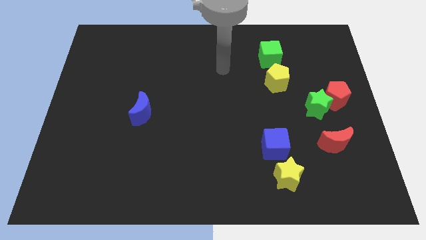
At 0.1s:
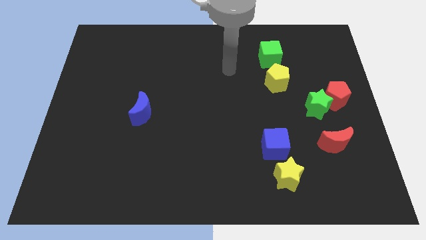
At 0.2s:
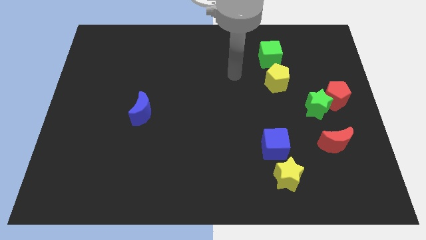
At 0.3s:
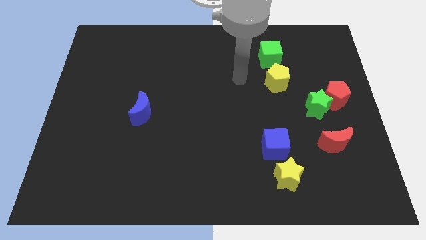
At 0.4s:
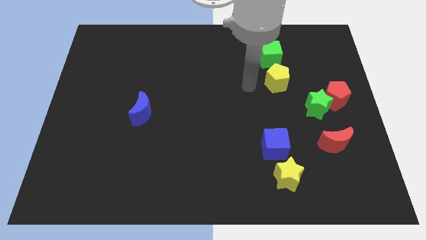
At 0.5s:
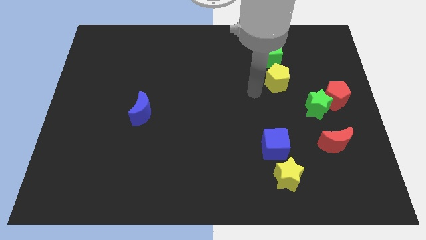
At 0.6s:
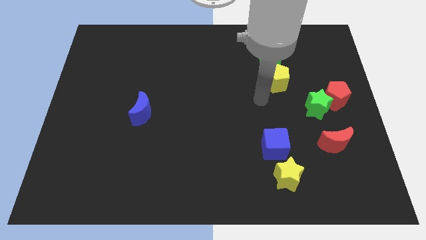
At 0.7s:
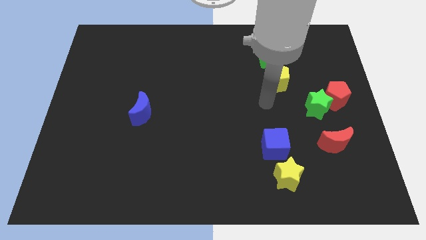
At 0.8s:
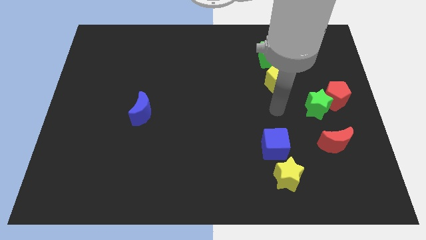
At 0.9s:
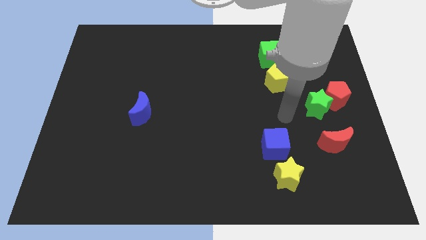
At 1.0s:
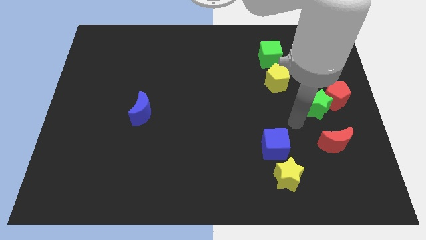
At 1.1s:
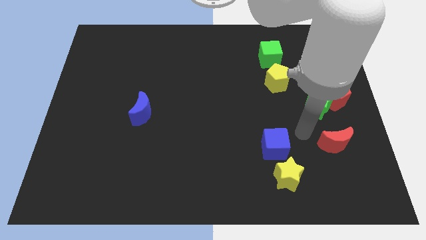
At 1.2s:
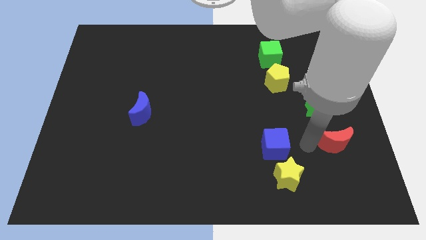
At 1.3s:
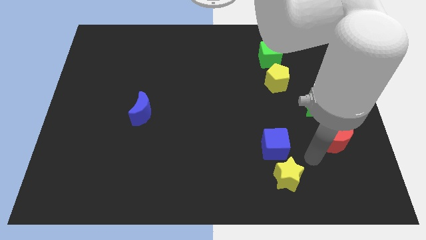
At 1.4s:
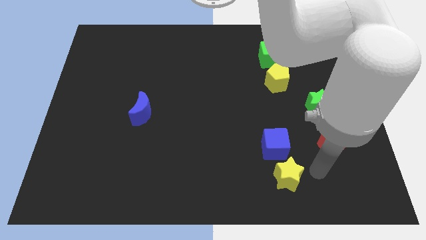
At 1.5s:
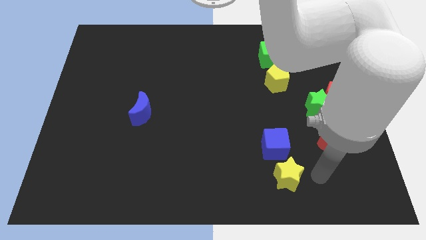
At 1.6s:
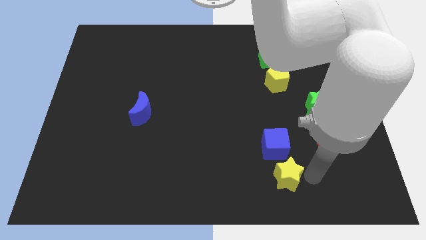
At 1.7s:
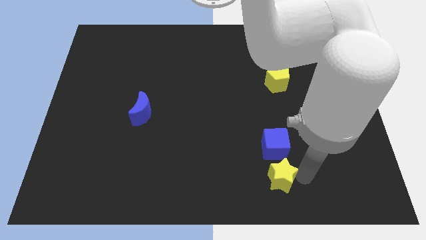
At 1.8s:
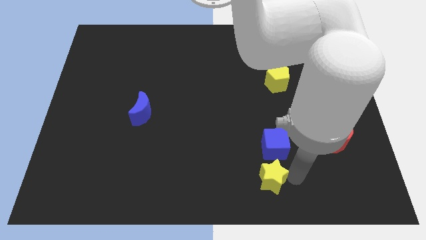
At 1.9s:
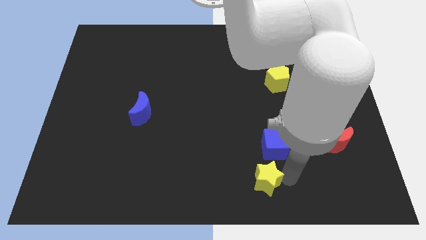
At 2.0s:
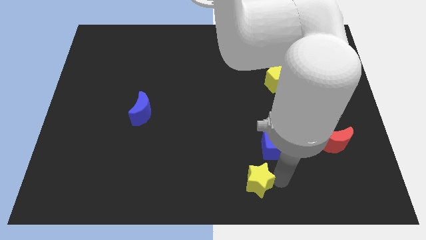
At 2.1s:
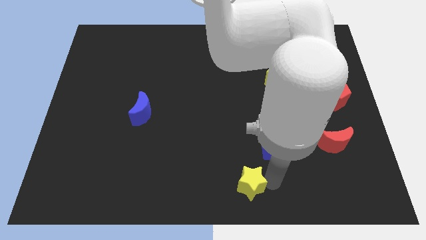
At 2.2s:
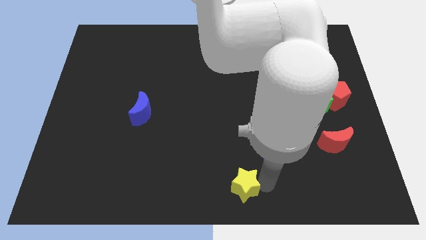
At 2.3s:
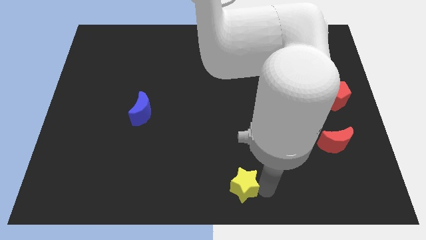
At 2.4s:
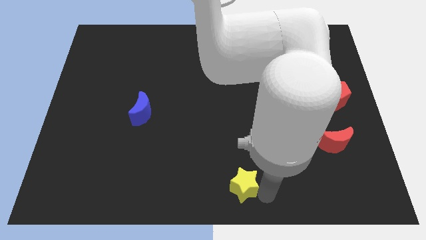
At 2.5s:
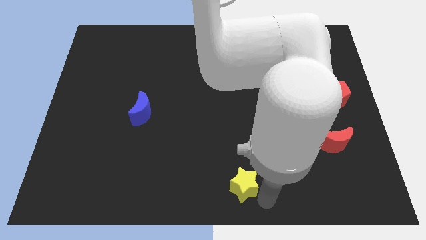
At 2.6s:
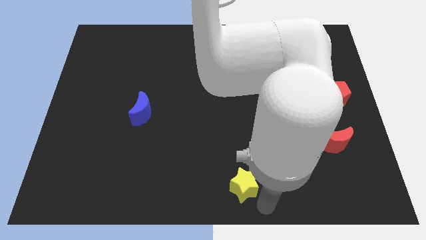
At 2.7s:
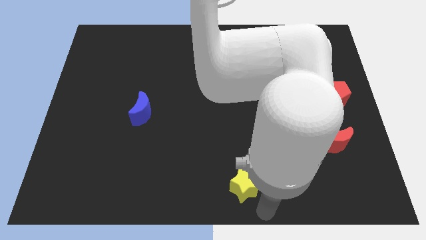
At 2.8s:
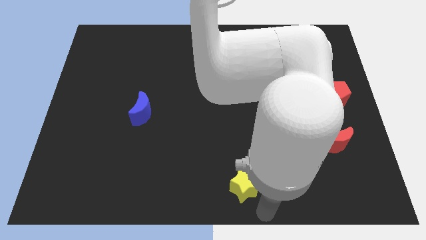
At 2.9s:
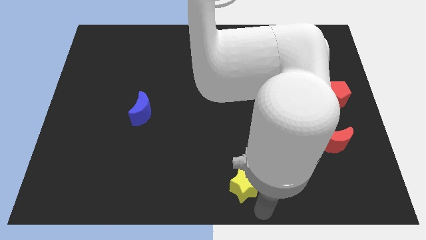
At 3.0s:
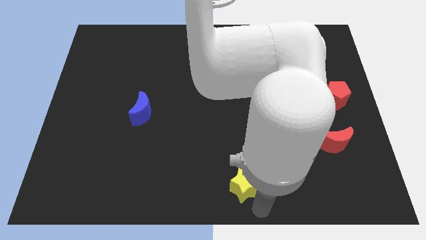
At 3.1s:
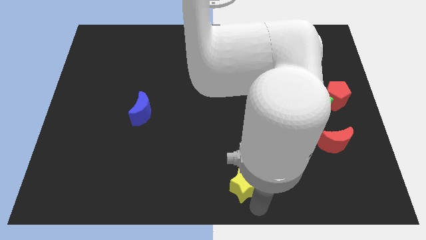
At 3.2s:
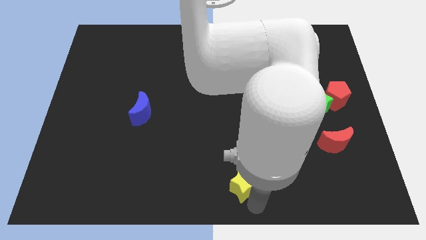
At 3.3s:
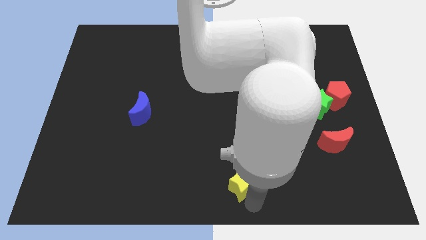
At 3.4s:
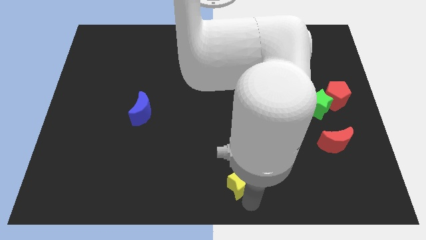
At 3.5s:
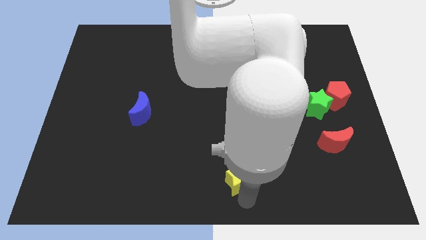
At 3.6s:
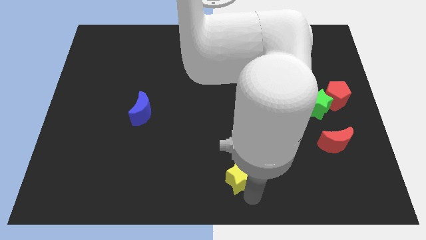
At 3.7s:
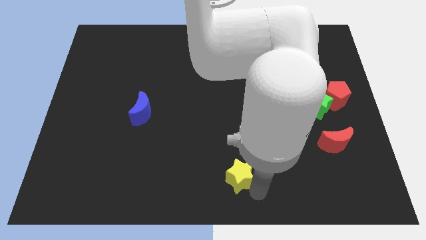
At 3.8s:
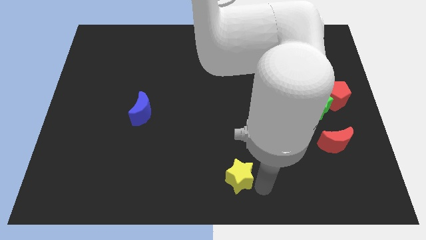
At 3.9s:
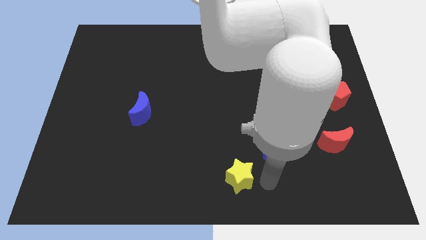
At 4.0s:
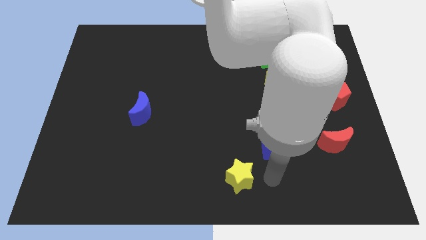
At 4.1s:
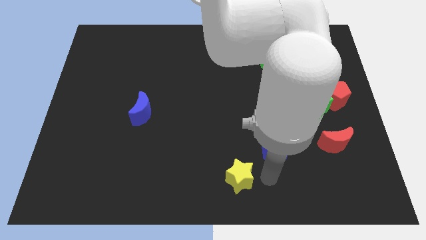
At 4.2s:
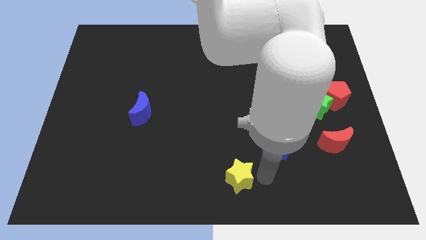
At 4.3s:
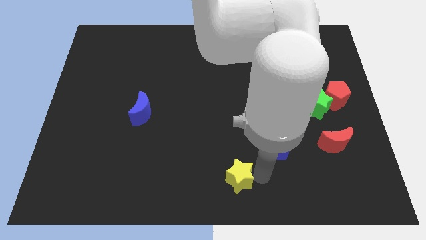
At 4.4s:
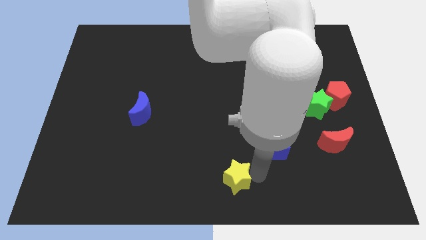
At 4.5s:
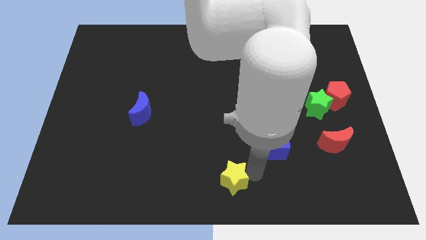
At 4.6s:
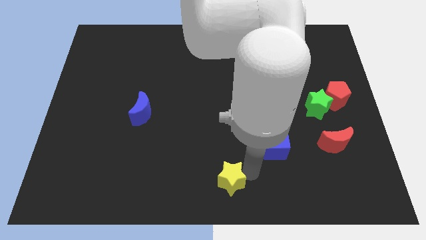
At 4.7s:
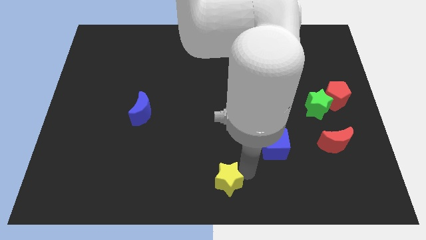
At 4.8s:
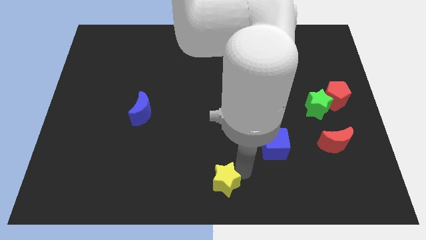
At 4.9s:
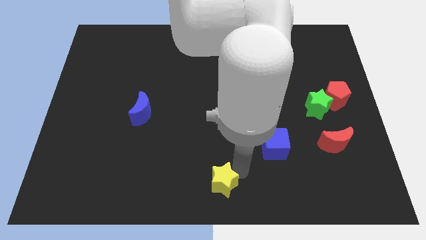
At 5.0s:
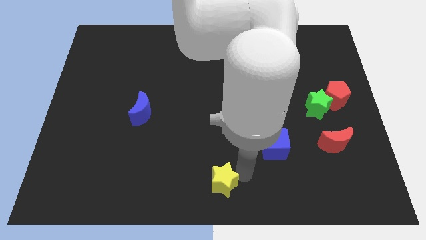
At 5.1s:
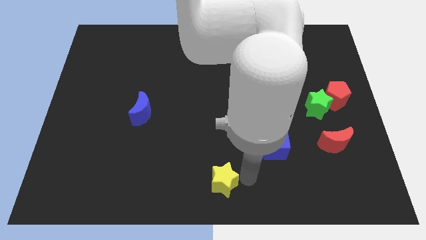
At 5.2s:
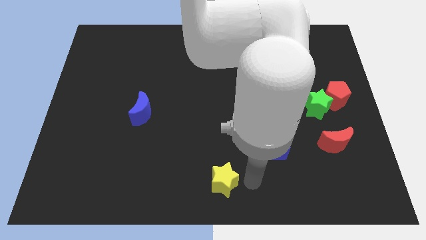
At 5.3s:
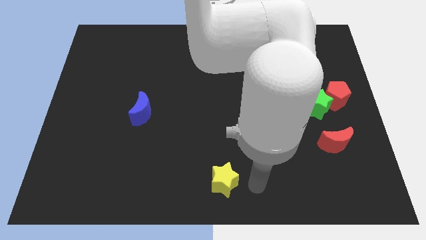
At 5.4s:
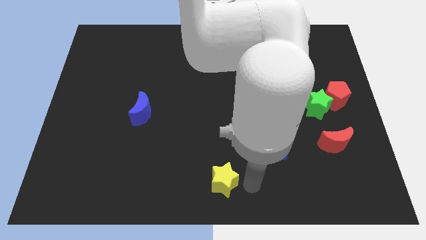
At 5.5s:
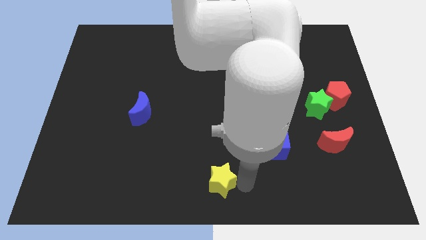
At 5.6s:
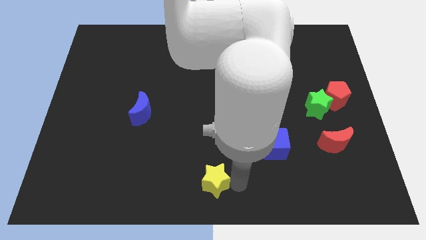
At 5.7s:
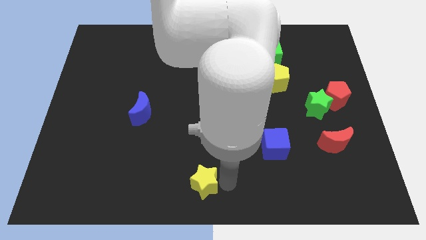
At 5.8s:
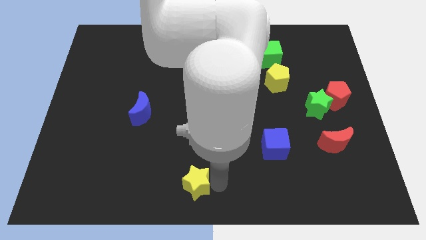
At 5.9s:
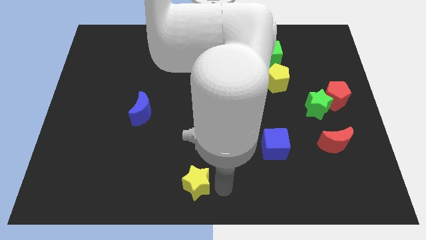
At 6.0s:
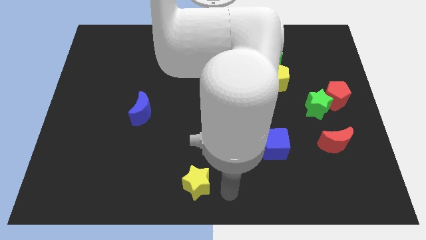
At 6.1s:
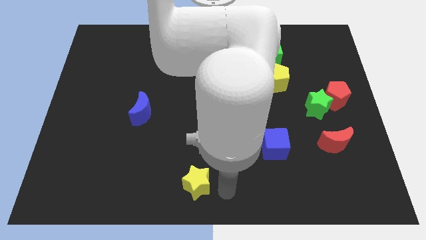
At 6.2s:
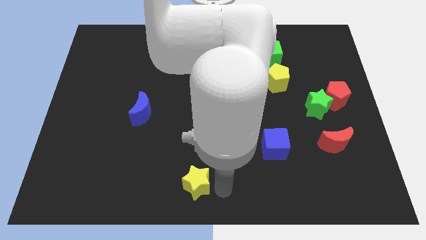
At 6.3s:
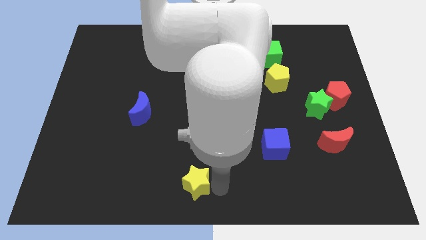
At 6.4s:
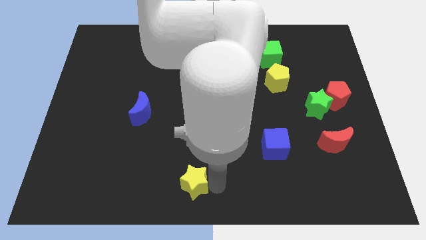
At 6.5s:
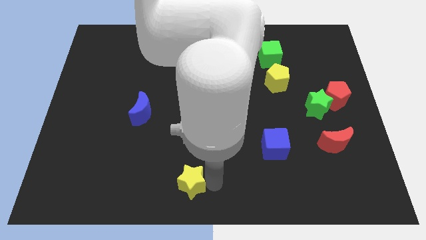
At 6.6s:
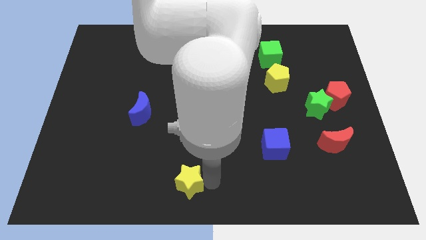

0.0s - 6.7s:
move the yellow star to the left

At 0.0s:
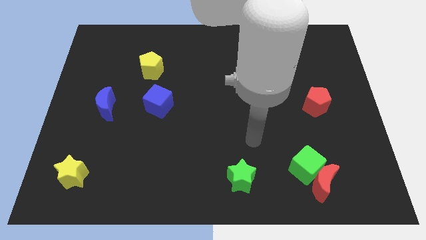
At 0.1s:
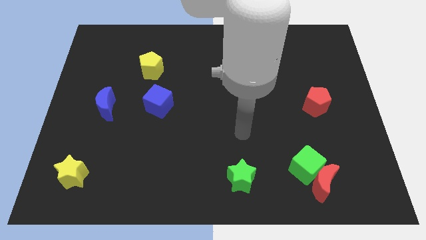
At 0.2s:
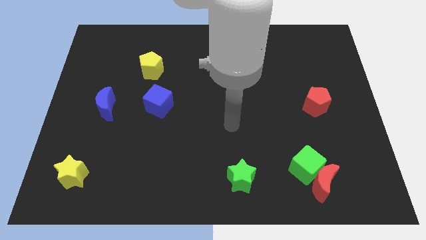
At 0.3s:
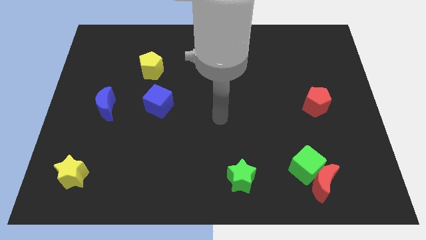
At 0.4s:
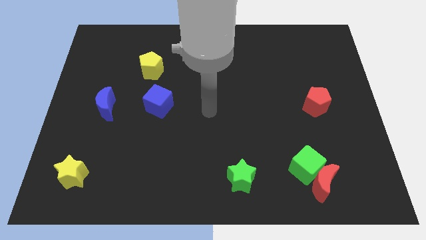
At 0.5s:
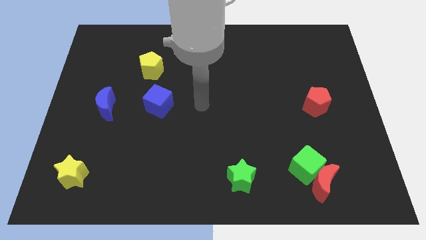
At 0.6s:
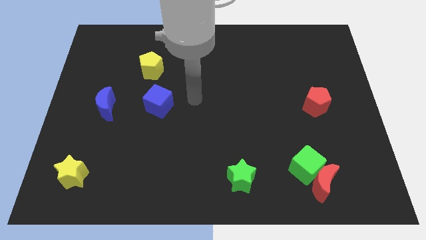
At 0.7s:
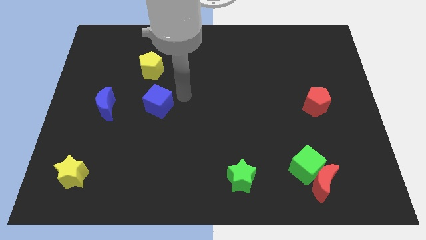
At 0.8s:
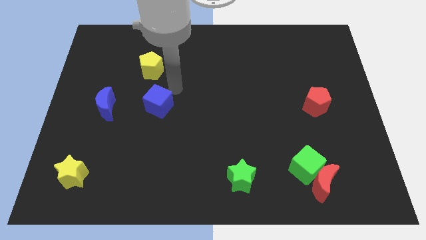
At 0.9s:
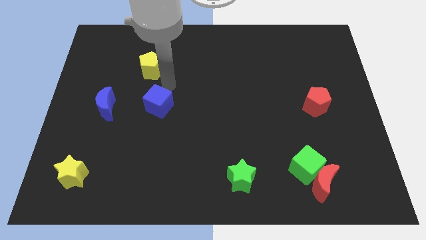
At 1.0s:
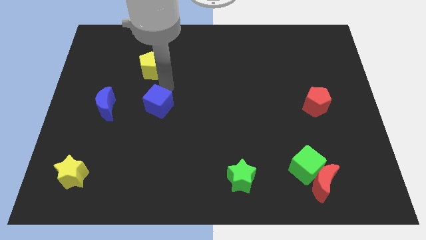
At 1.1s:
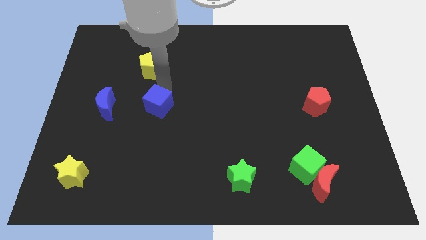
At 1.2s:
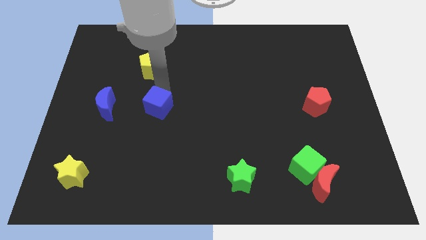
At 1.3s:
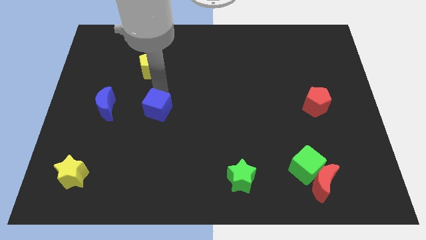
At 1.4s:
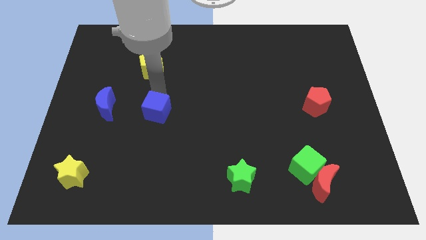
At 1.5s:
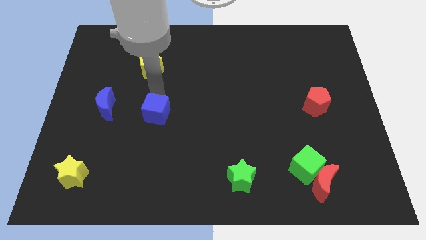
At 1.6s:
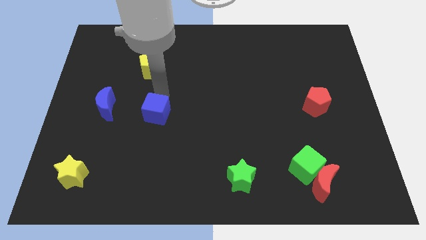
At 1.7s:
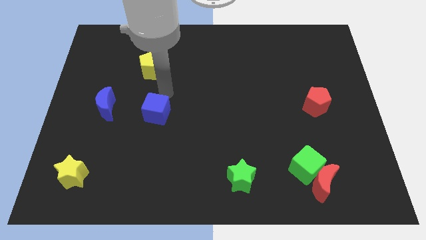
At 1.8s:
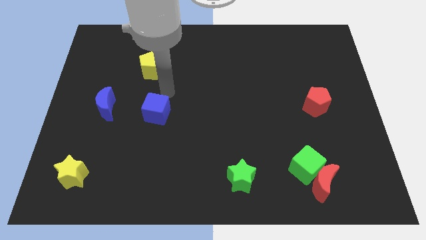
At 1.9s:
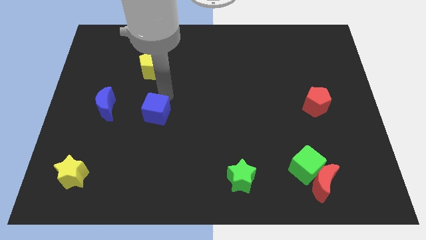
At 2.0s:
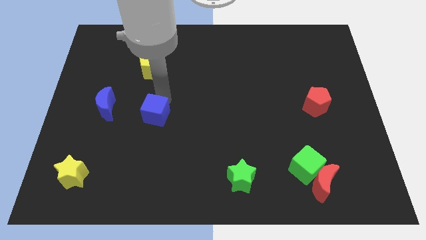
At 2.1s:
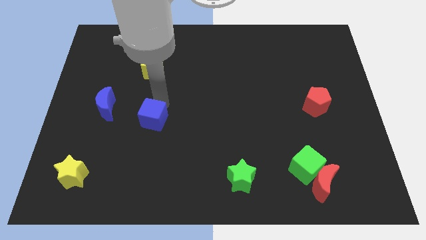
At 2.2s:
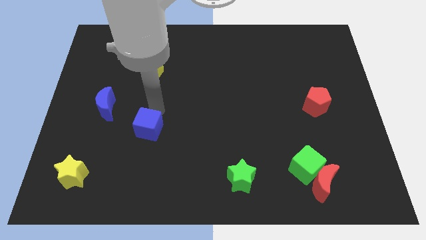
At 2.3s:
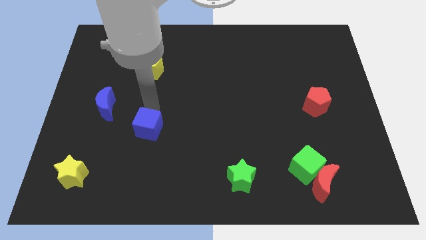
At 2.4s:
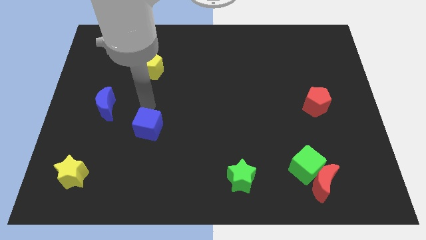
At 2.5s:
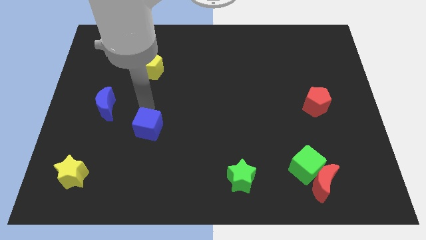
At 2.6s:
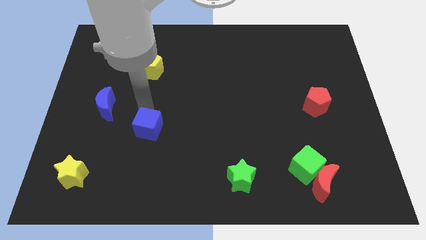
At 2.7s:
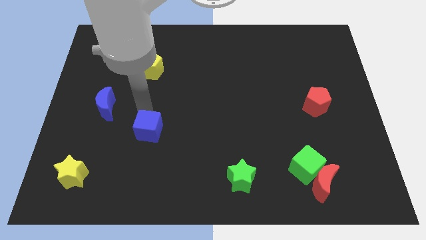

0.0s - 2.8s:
slightly move the blue cube downwards
